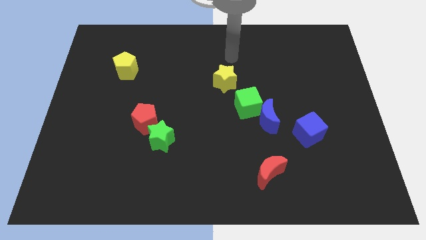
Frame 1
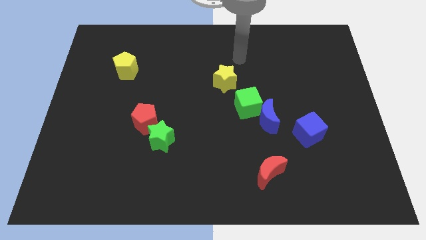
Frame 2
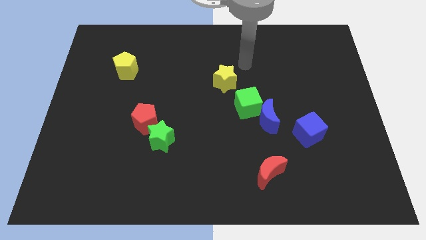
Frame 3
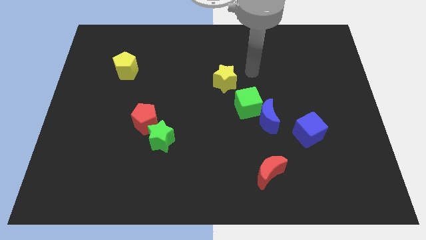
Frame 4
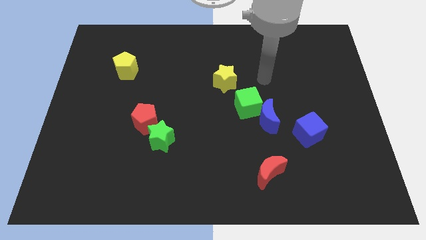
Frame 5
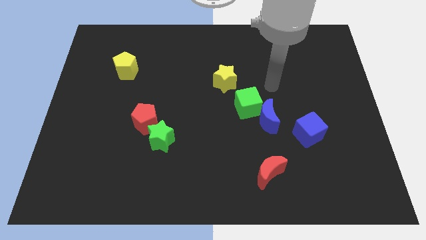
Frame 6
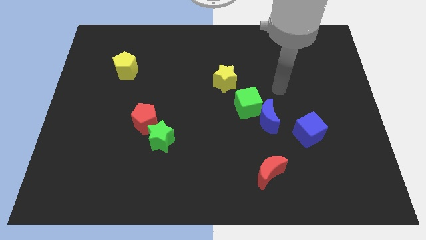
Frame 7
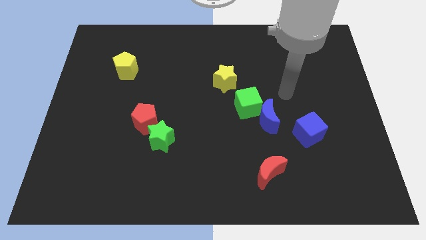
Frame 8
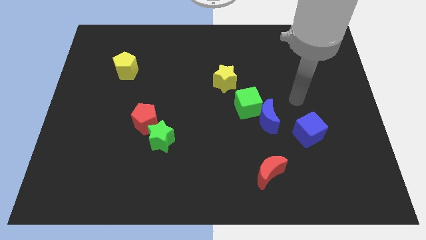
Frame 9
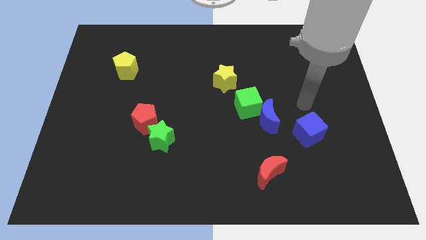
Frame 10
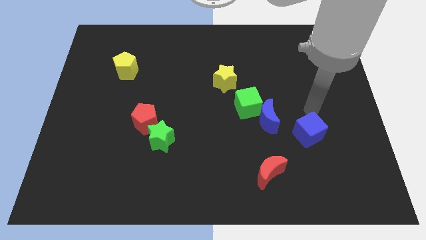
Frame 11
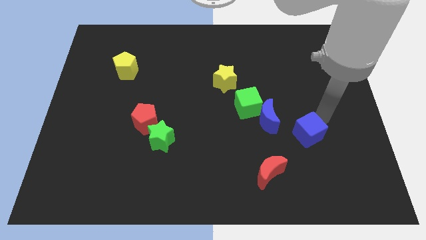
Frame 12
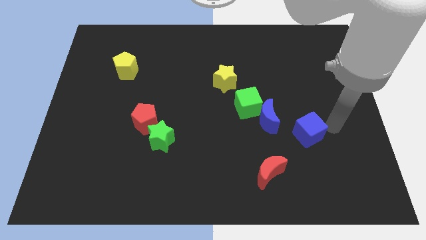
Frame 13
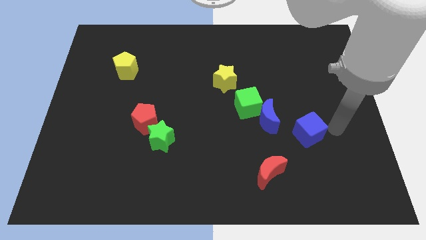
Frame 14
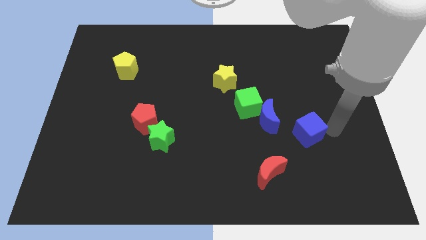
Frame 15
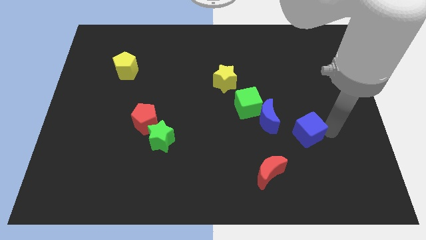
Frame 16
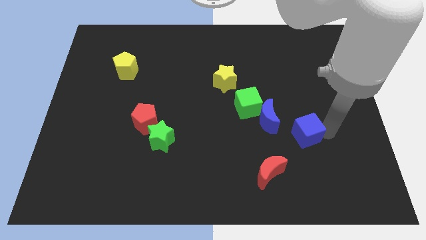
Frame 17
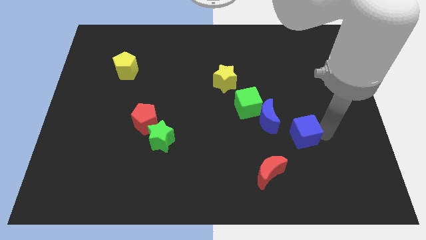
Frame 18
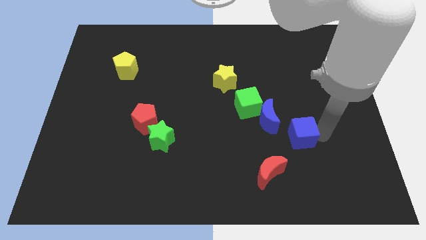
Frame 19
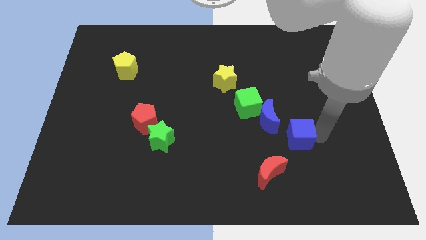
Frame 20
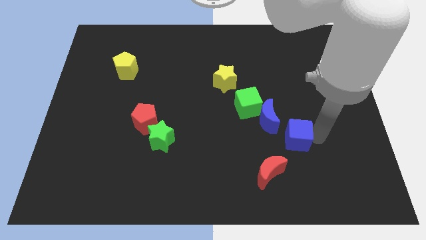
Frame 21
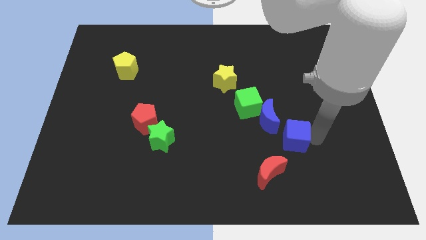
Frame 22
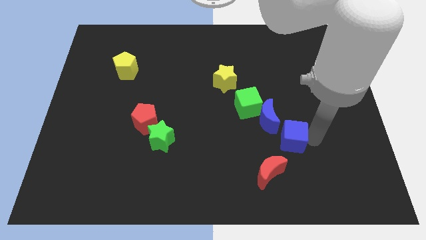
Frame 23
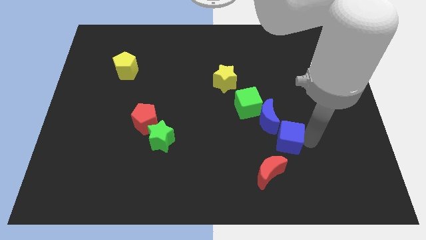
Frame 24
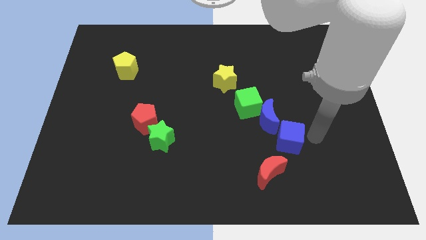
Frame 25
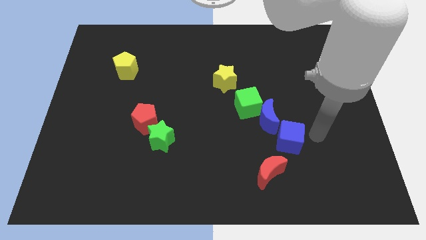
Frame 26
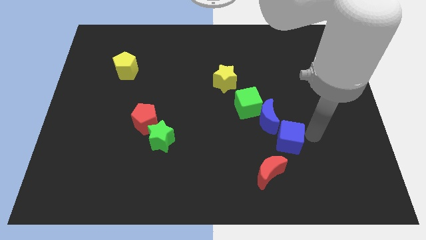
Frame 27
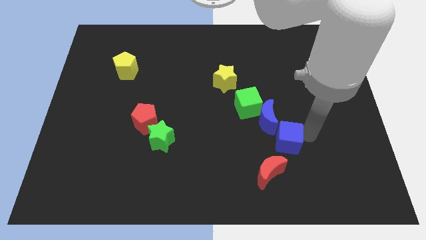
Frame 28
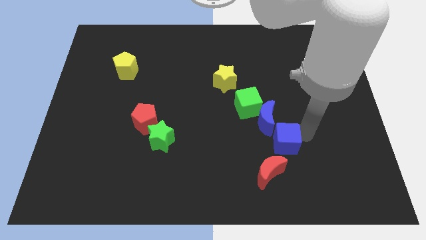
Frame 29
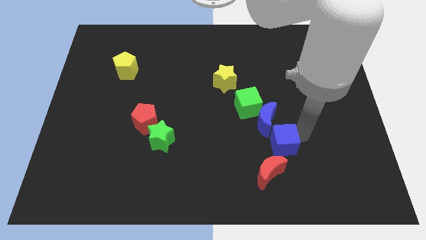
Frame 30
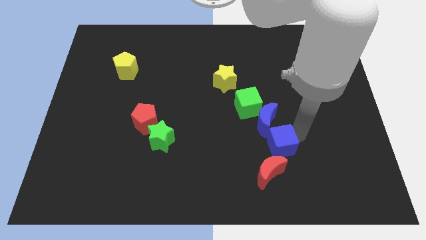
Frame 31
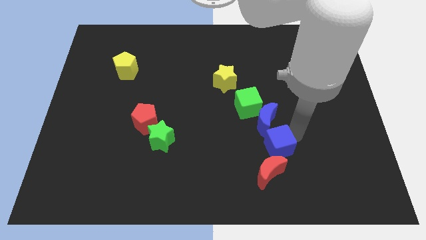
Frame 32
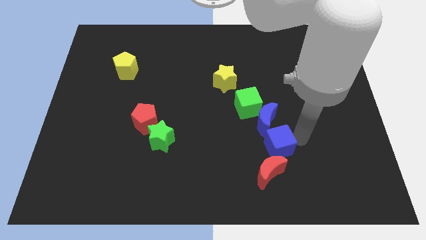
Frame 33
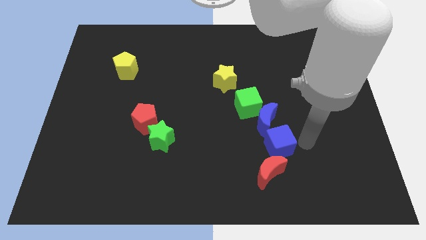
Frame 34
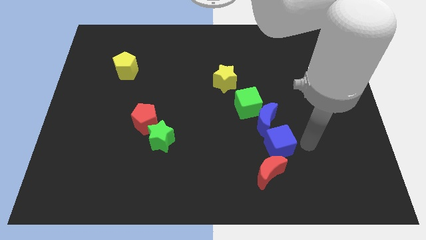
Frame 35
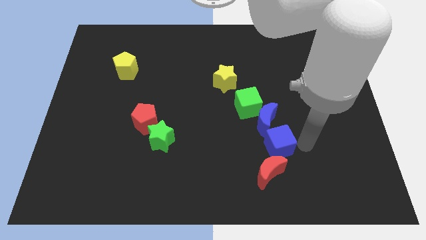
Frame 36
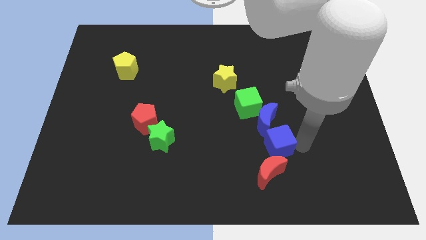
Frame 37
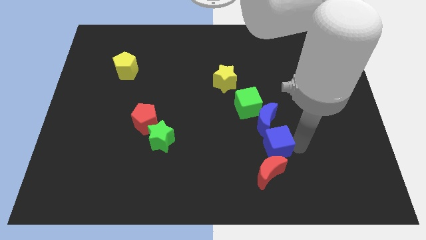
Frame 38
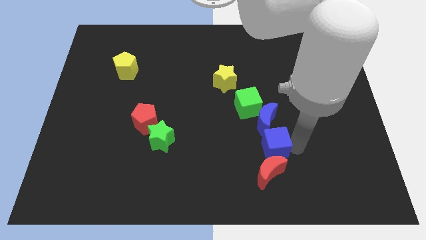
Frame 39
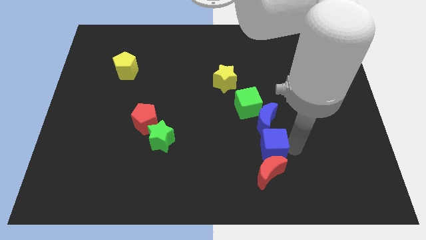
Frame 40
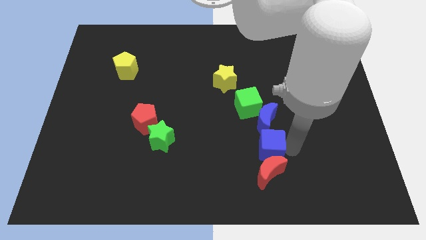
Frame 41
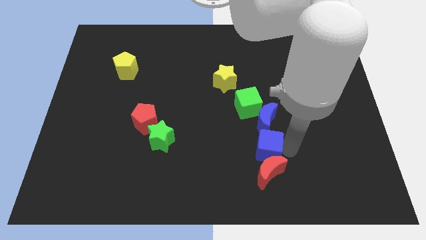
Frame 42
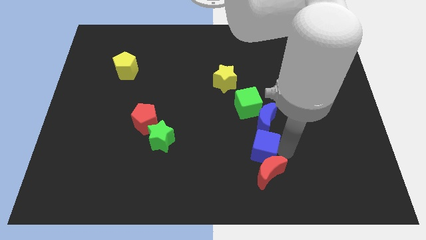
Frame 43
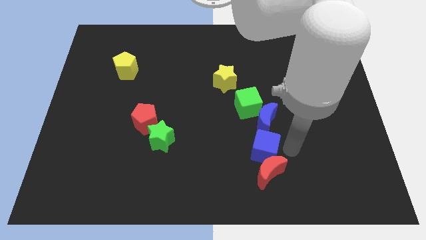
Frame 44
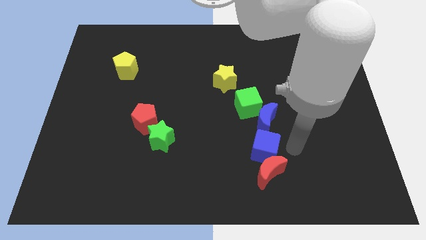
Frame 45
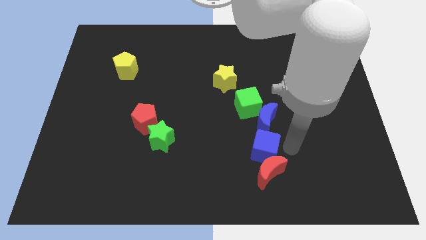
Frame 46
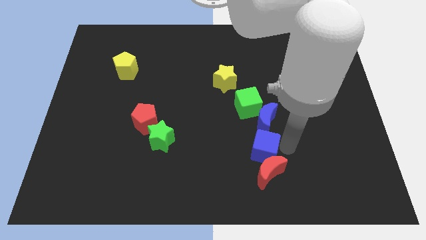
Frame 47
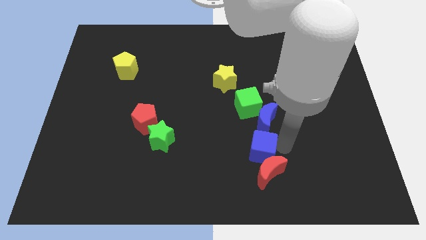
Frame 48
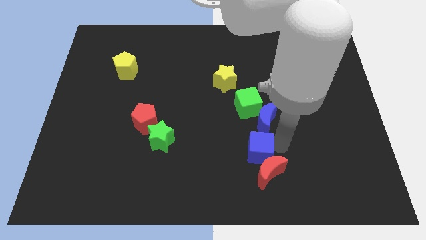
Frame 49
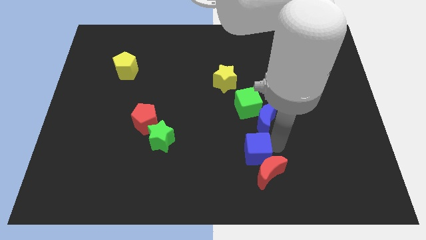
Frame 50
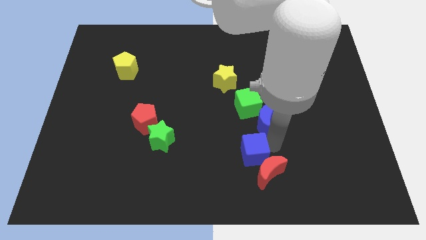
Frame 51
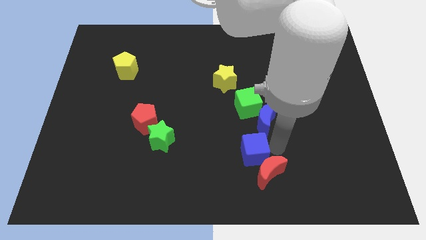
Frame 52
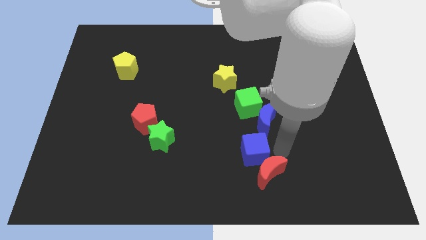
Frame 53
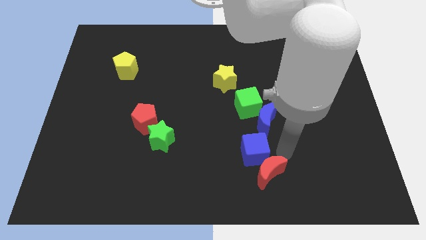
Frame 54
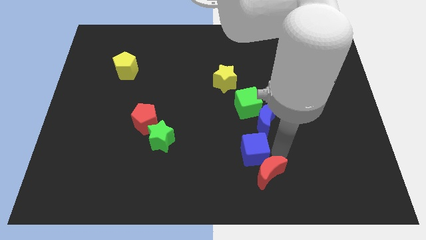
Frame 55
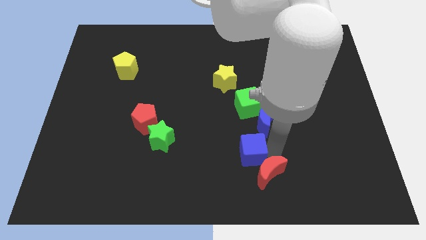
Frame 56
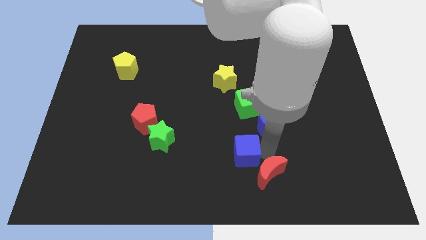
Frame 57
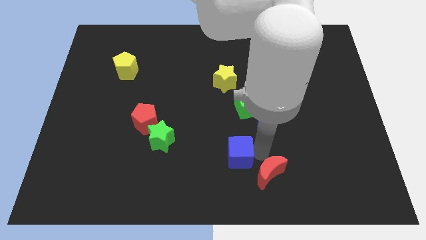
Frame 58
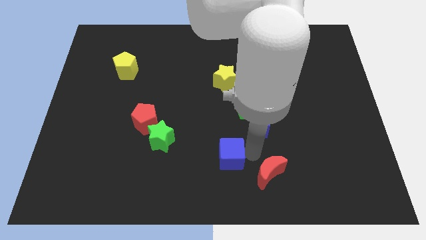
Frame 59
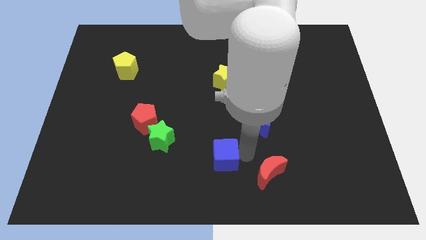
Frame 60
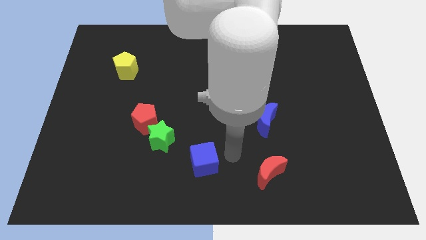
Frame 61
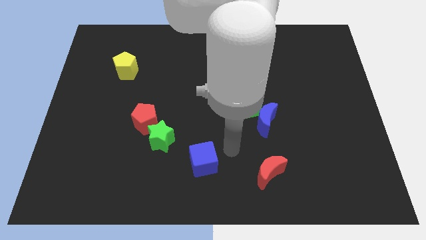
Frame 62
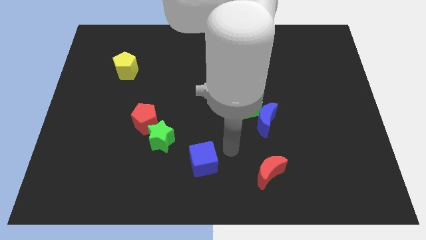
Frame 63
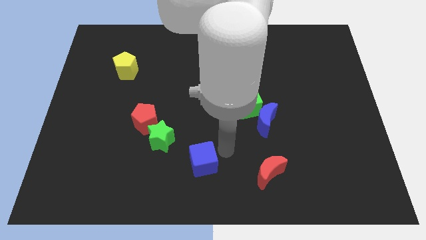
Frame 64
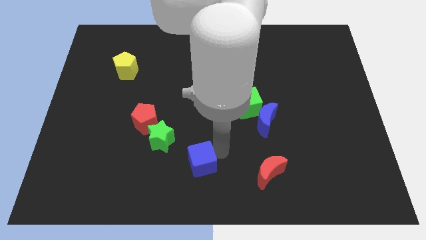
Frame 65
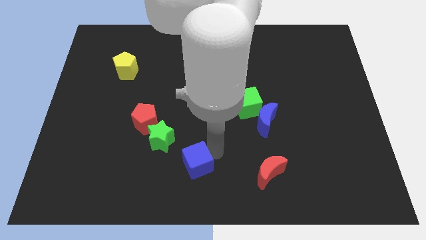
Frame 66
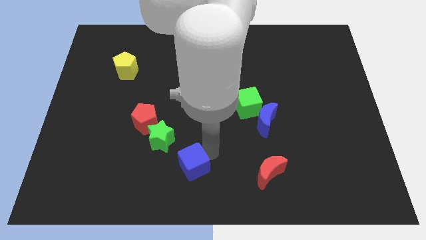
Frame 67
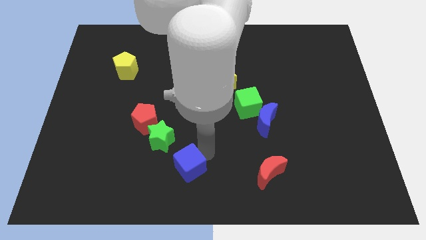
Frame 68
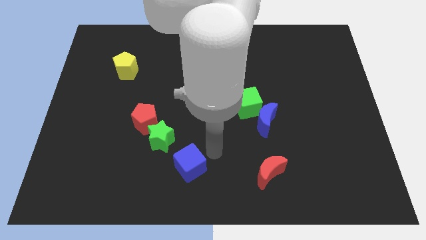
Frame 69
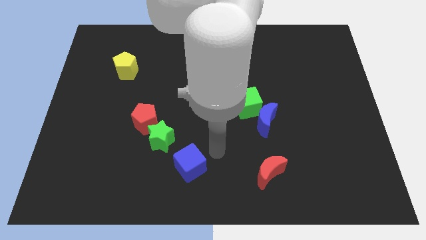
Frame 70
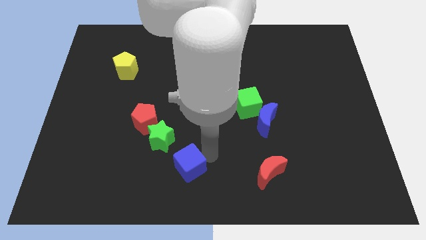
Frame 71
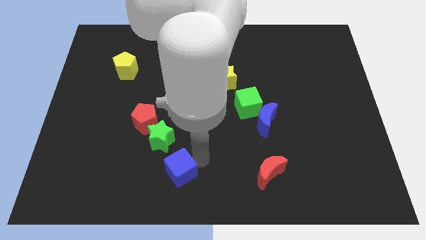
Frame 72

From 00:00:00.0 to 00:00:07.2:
slide the blue cube below the green star
